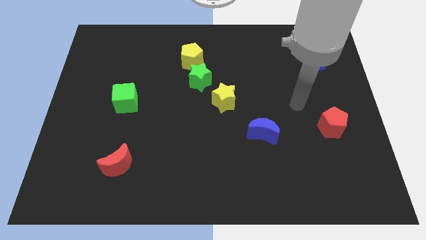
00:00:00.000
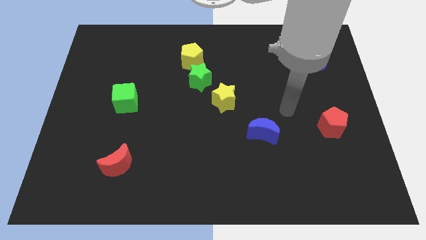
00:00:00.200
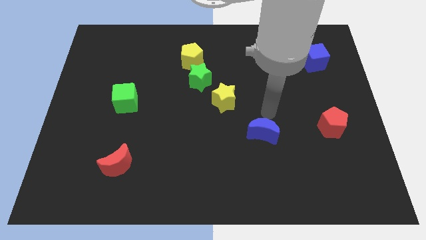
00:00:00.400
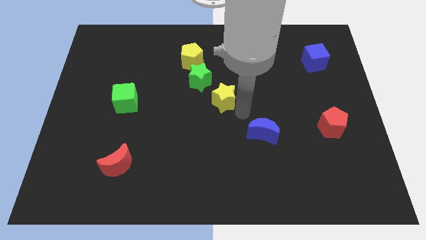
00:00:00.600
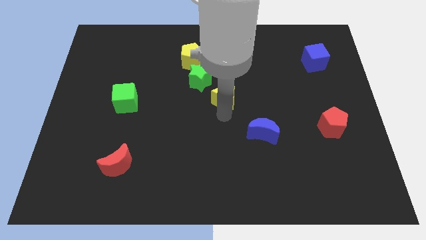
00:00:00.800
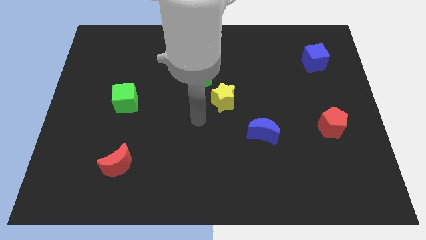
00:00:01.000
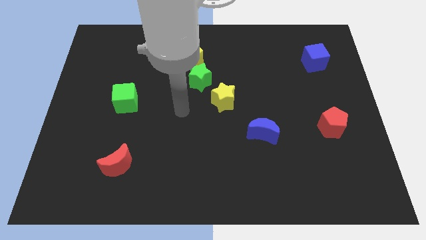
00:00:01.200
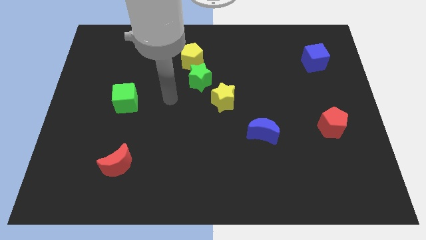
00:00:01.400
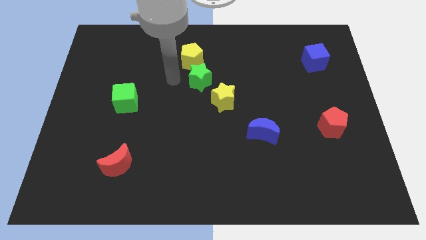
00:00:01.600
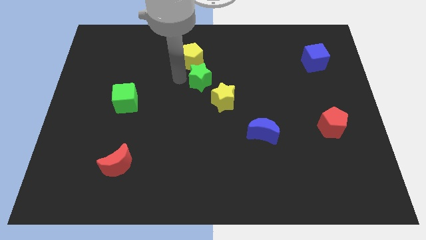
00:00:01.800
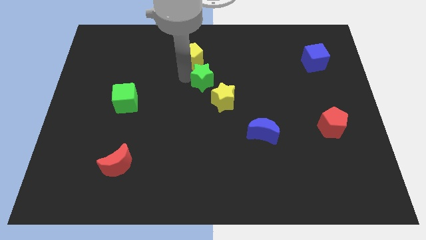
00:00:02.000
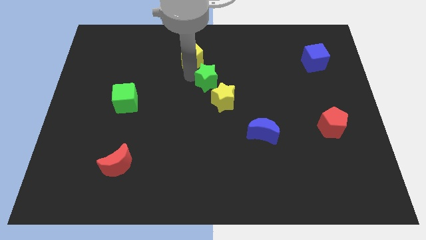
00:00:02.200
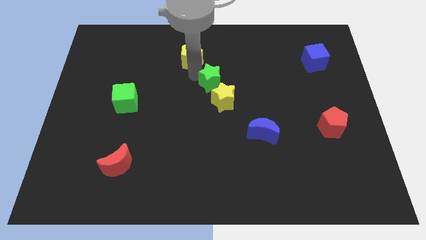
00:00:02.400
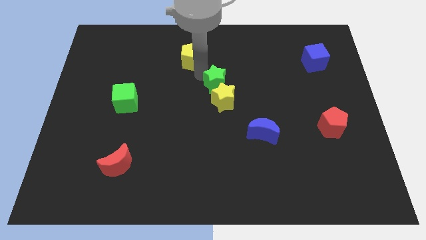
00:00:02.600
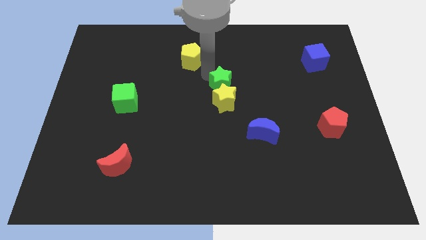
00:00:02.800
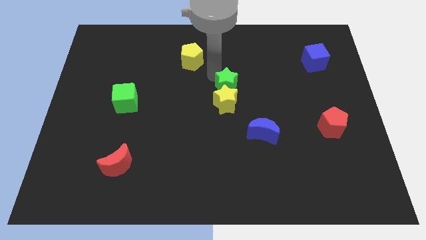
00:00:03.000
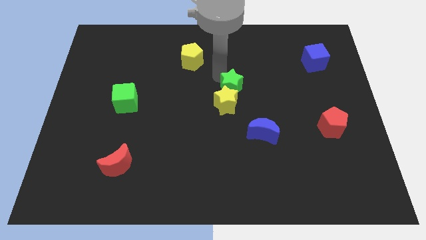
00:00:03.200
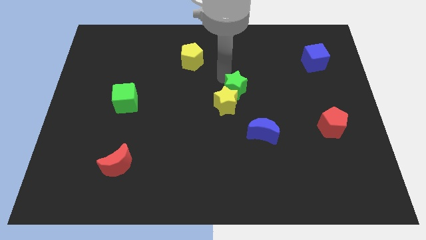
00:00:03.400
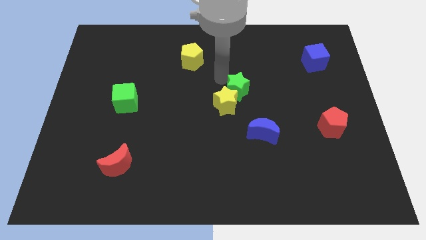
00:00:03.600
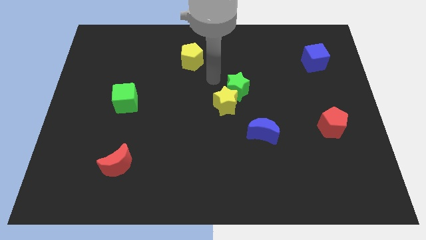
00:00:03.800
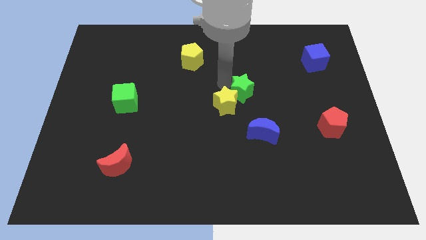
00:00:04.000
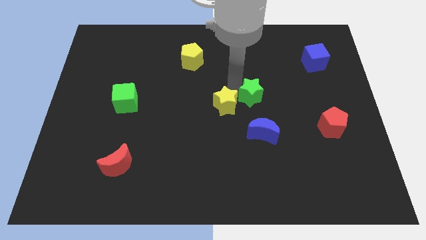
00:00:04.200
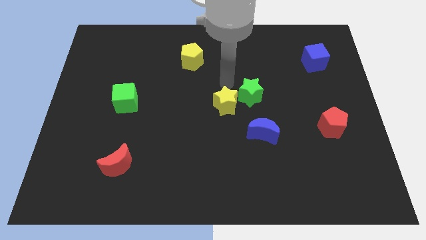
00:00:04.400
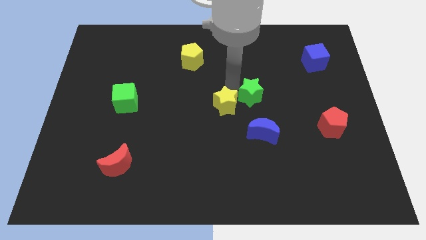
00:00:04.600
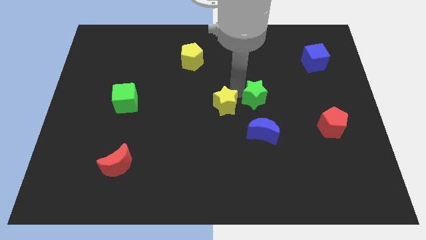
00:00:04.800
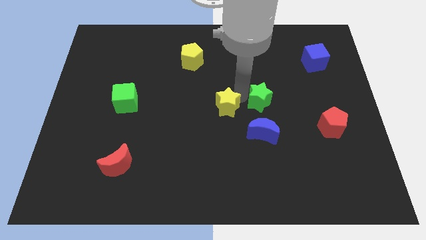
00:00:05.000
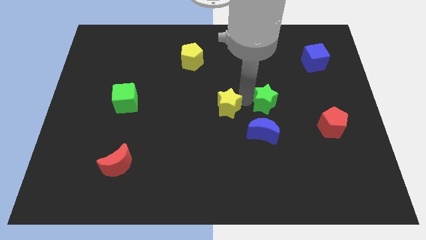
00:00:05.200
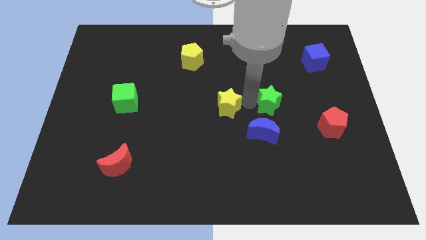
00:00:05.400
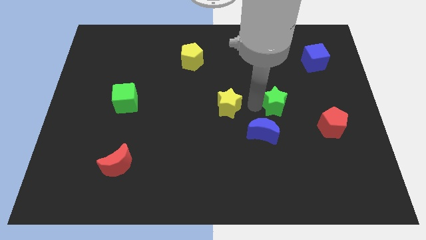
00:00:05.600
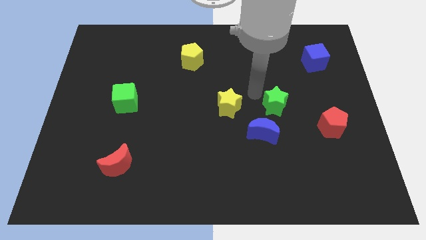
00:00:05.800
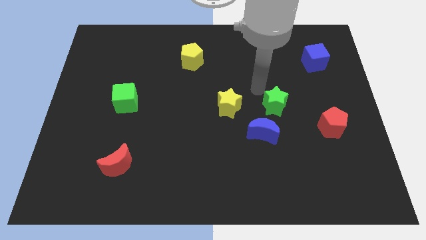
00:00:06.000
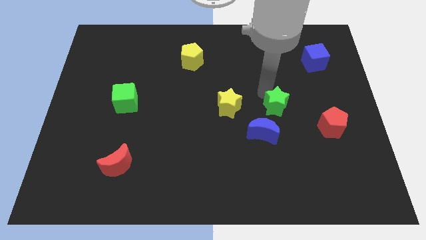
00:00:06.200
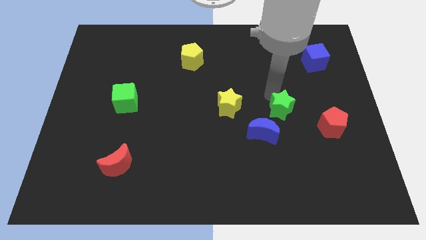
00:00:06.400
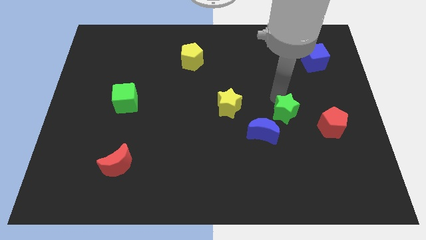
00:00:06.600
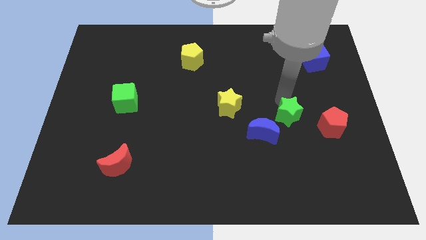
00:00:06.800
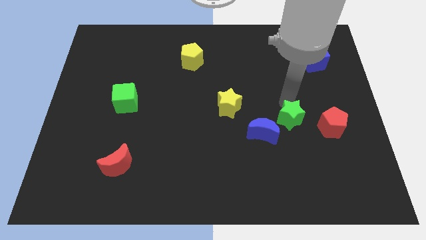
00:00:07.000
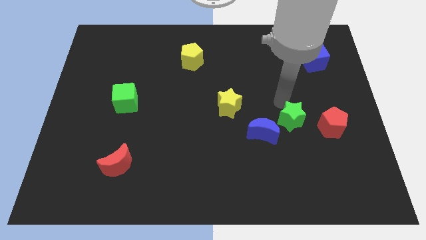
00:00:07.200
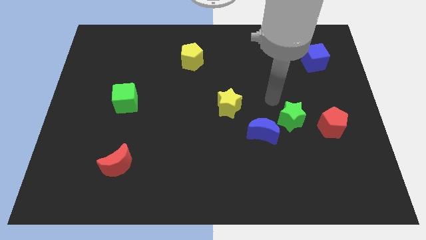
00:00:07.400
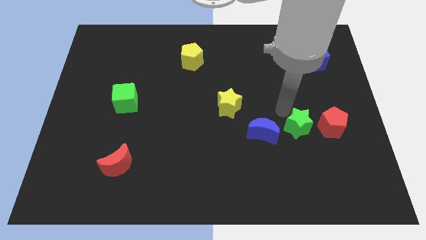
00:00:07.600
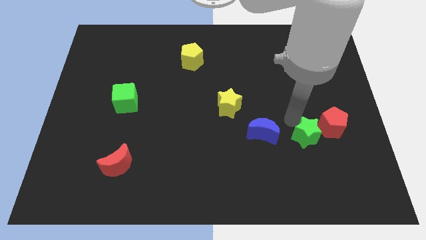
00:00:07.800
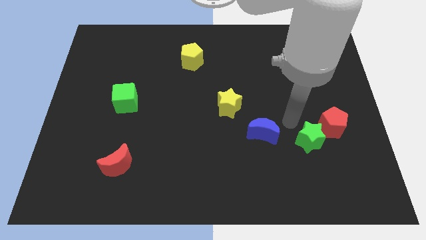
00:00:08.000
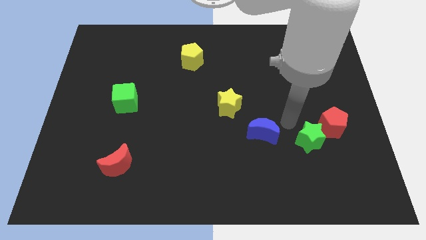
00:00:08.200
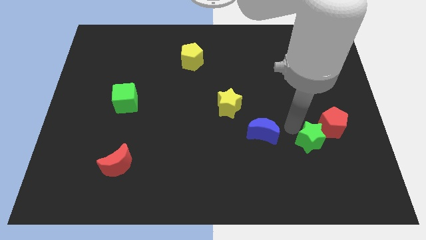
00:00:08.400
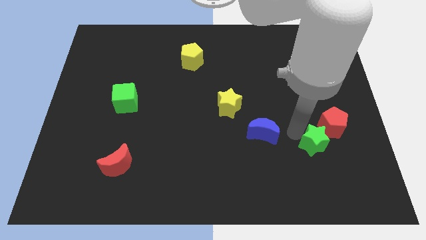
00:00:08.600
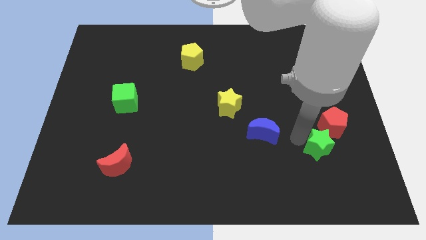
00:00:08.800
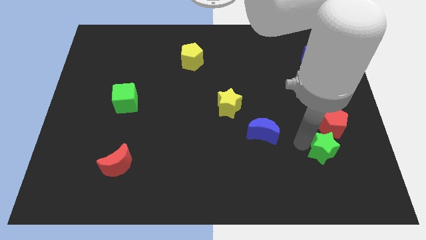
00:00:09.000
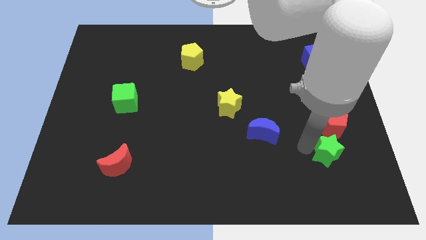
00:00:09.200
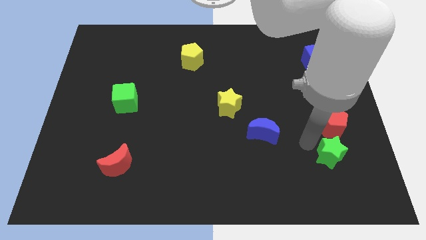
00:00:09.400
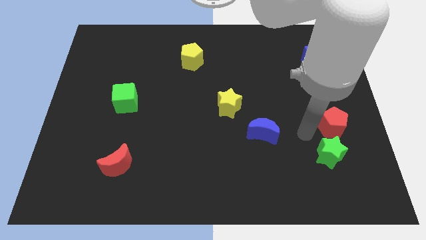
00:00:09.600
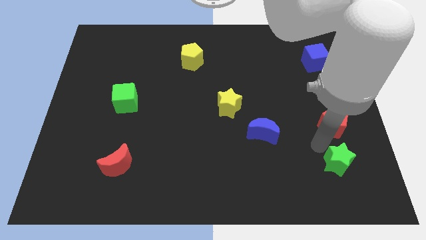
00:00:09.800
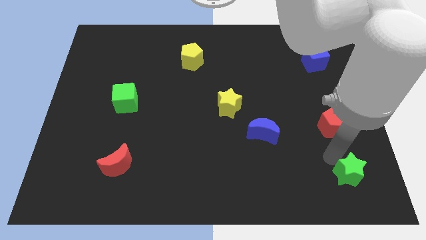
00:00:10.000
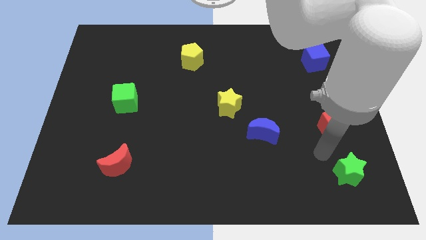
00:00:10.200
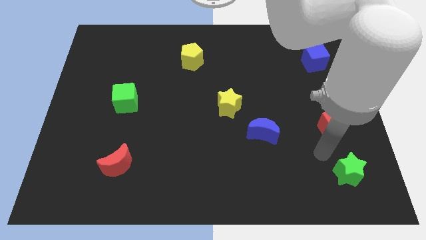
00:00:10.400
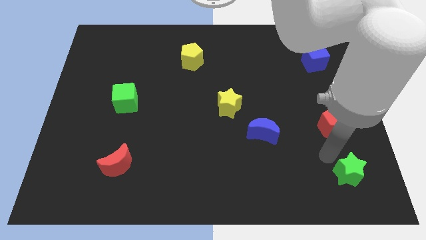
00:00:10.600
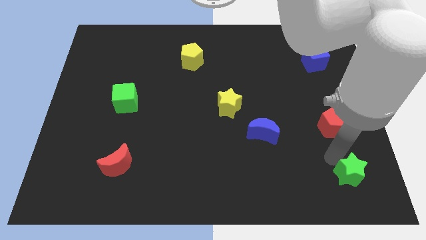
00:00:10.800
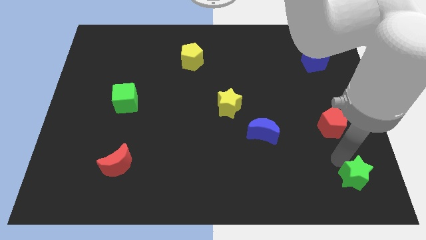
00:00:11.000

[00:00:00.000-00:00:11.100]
put the green star to the bottom right corner

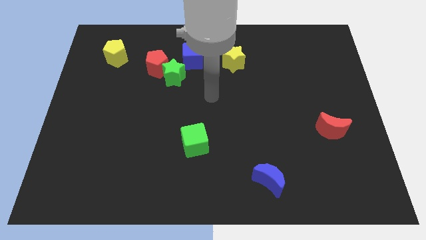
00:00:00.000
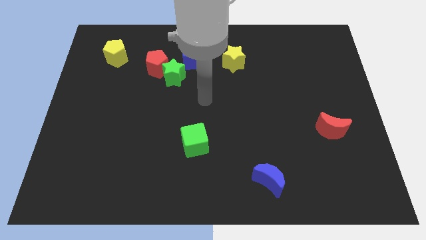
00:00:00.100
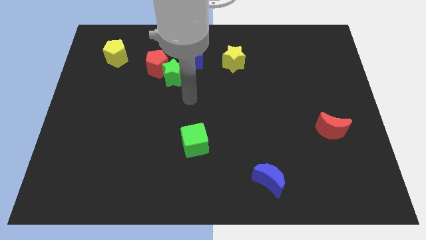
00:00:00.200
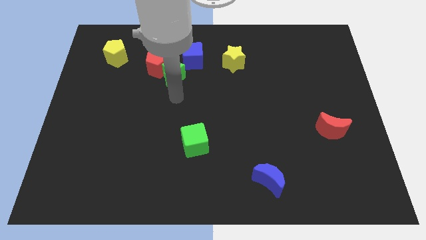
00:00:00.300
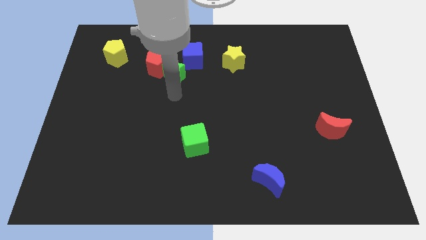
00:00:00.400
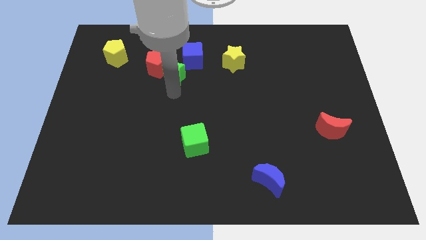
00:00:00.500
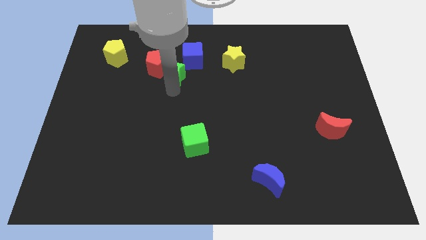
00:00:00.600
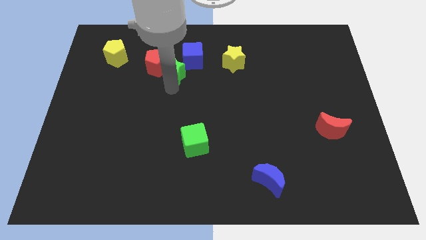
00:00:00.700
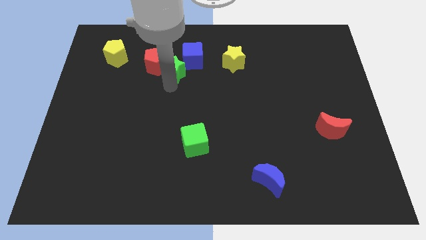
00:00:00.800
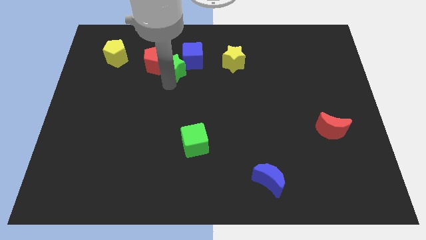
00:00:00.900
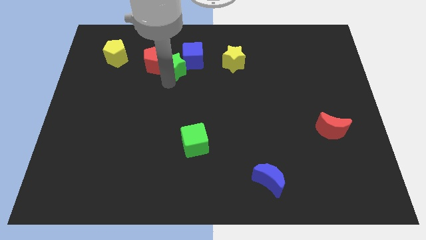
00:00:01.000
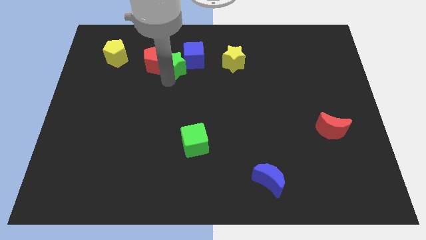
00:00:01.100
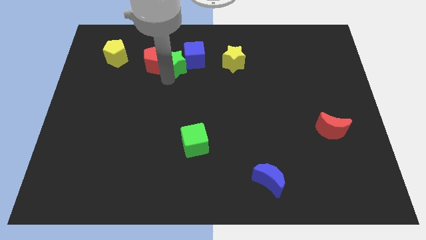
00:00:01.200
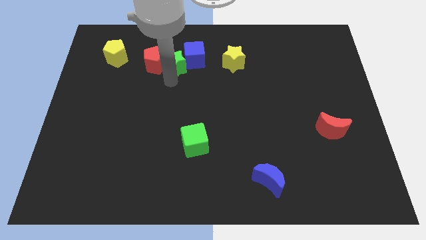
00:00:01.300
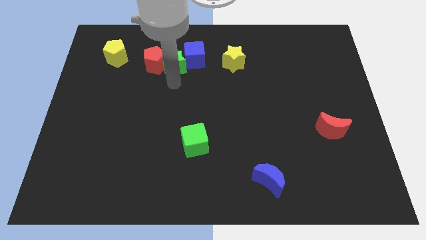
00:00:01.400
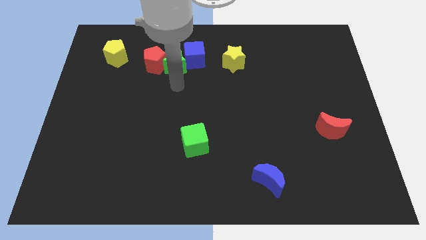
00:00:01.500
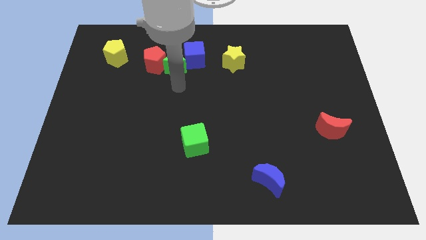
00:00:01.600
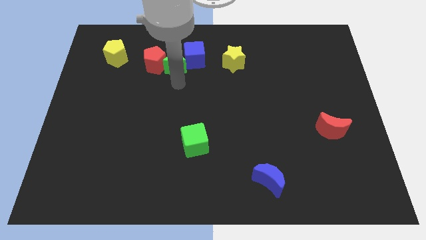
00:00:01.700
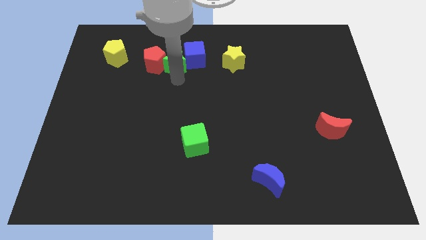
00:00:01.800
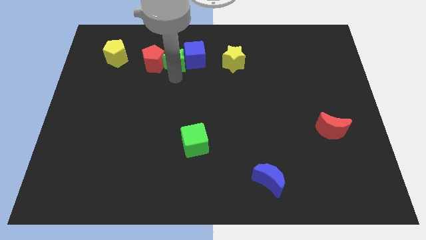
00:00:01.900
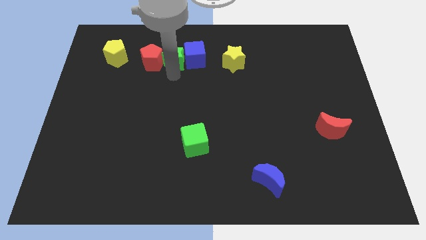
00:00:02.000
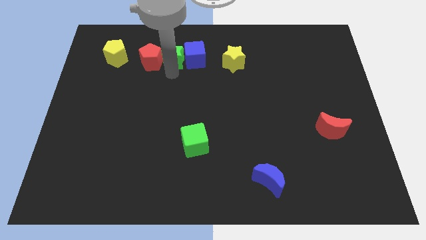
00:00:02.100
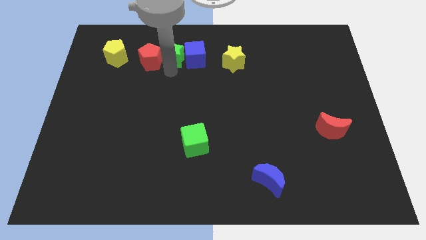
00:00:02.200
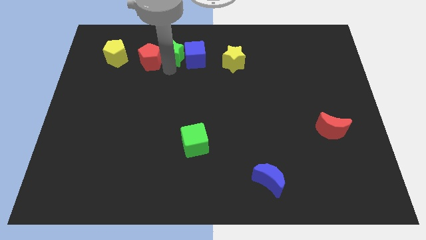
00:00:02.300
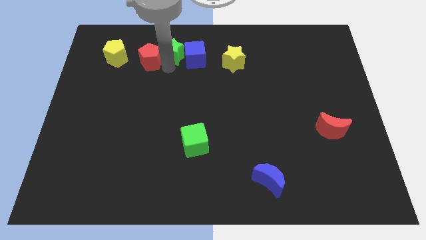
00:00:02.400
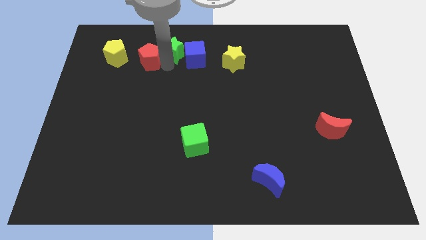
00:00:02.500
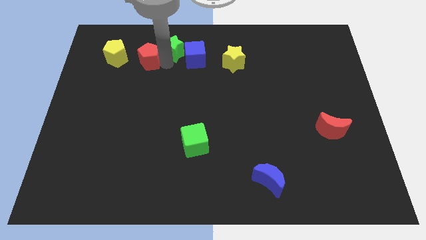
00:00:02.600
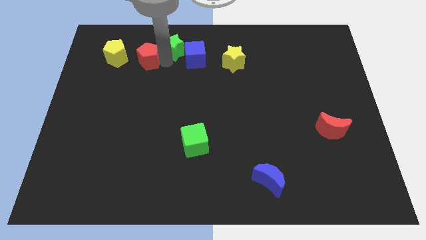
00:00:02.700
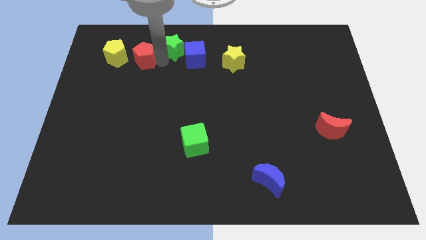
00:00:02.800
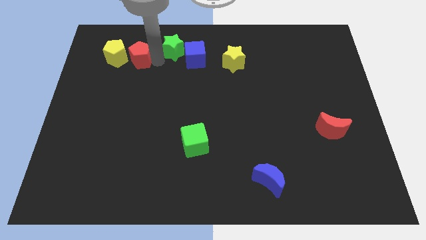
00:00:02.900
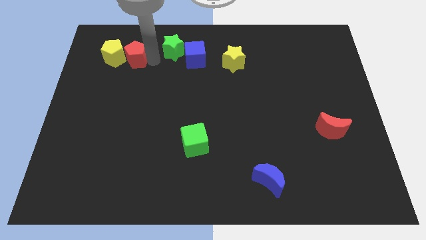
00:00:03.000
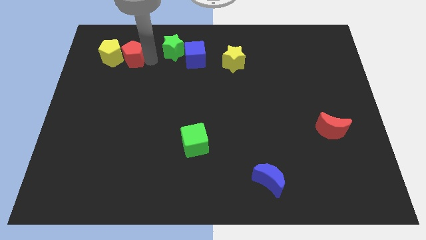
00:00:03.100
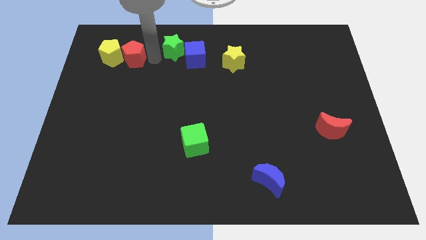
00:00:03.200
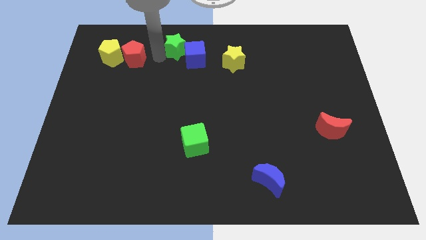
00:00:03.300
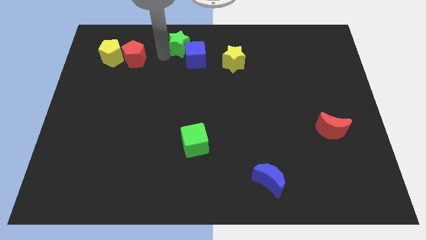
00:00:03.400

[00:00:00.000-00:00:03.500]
put the green star to the towards your base
